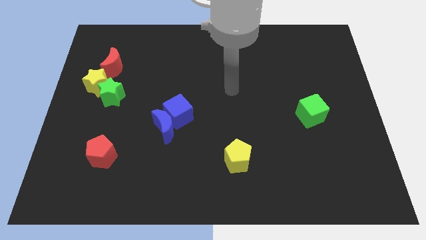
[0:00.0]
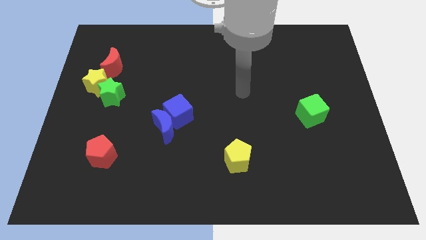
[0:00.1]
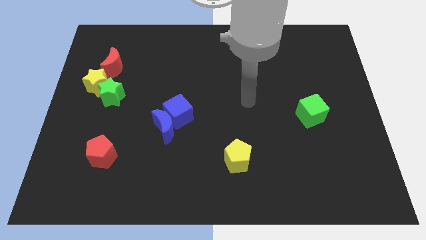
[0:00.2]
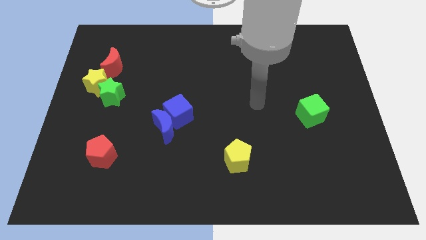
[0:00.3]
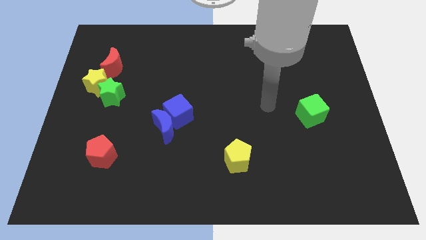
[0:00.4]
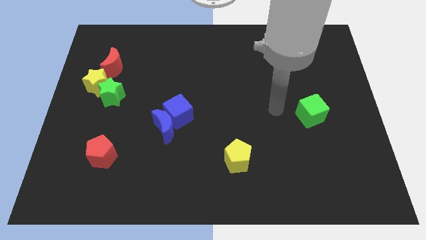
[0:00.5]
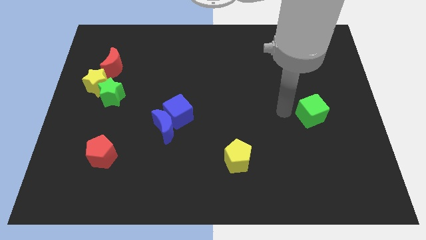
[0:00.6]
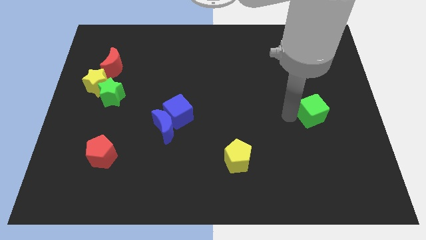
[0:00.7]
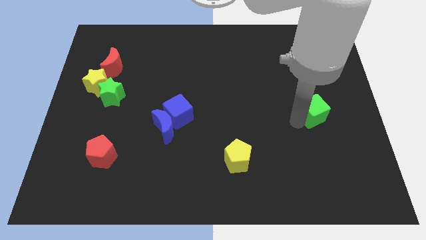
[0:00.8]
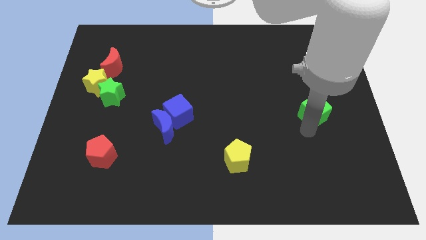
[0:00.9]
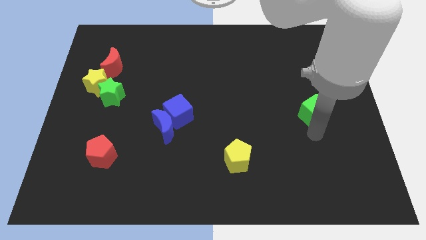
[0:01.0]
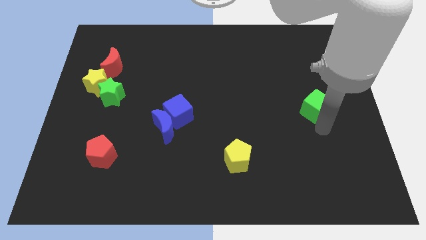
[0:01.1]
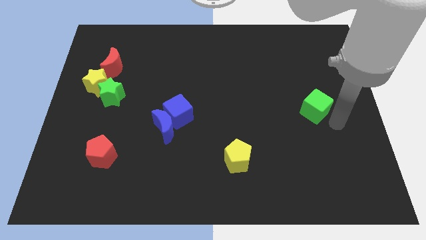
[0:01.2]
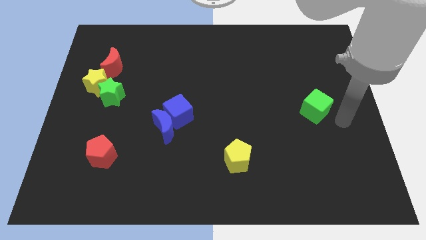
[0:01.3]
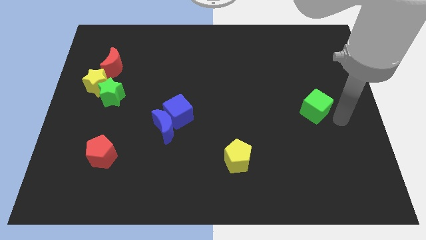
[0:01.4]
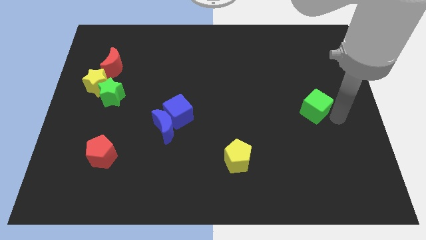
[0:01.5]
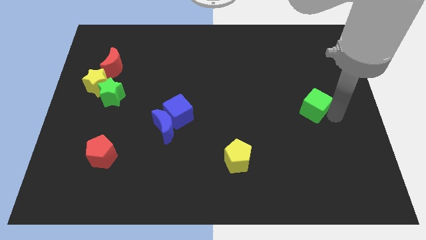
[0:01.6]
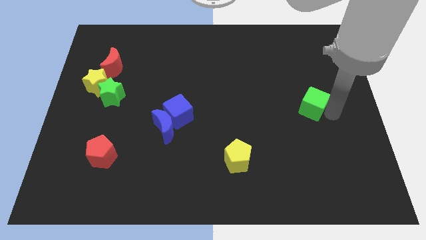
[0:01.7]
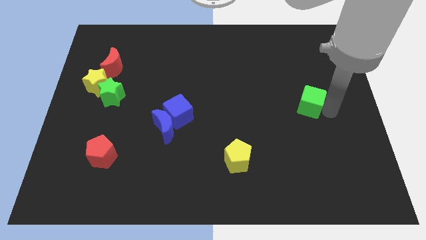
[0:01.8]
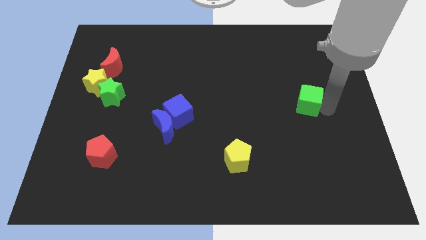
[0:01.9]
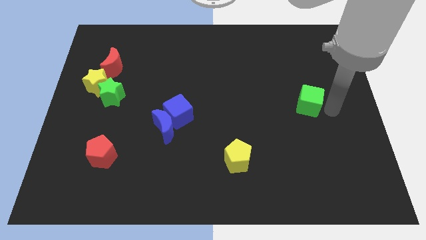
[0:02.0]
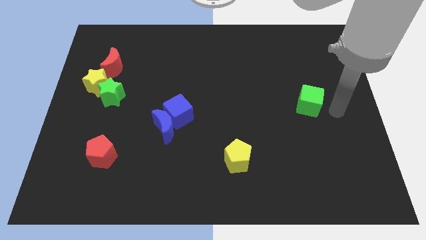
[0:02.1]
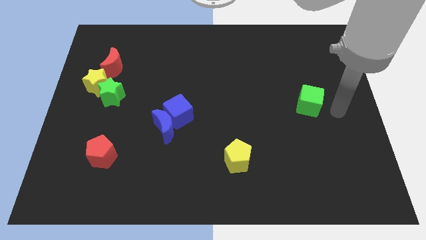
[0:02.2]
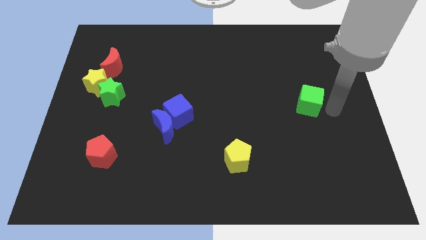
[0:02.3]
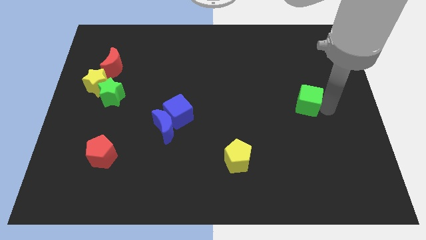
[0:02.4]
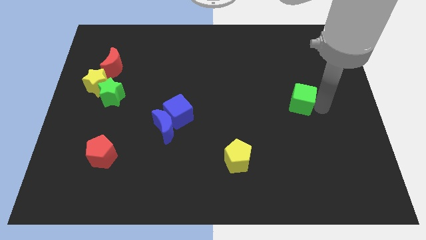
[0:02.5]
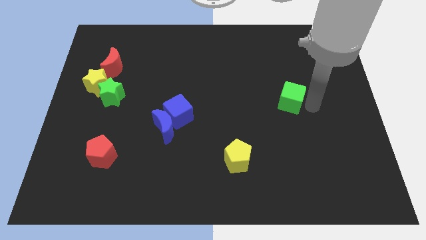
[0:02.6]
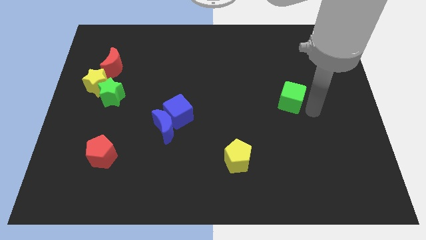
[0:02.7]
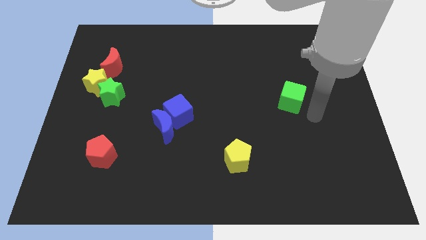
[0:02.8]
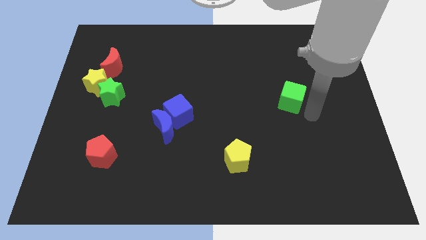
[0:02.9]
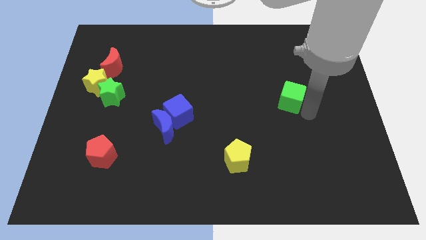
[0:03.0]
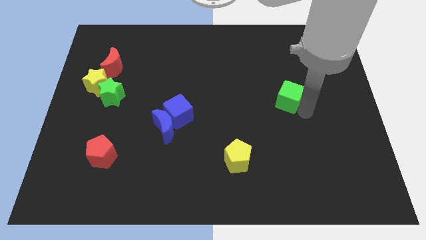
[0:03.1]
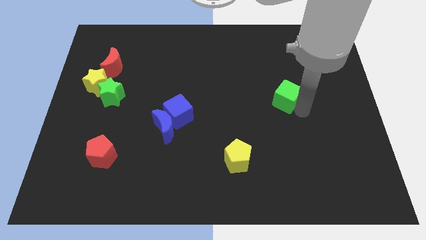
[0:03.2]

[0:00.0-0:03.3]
slide the green cube upwards and to the left diagonally a bit

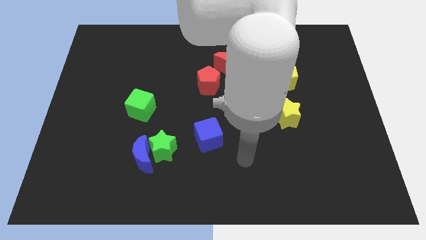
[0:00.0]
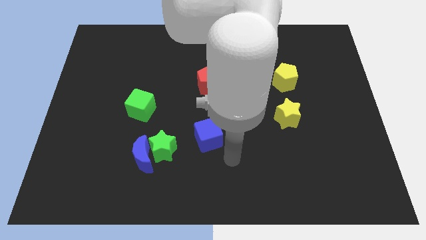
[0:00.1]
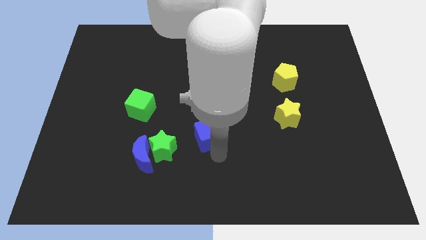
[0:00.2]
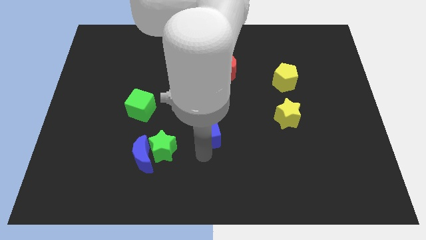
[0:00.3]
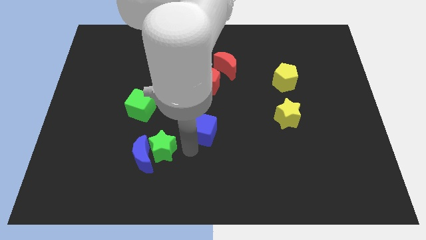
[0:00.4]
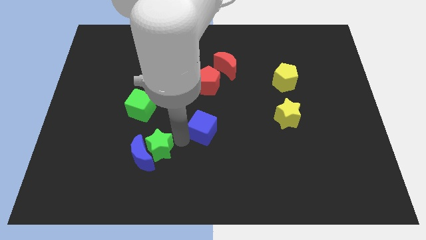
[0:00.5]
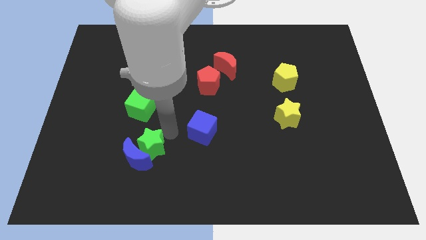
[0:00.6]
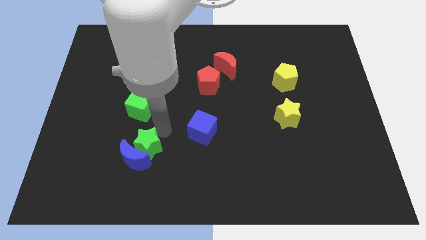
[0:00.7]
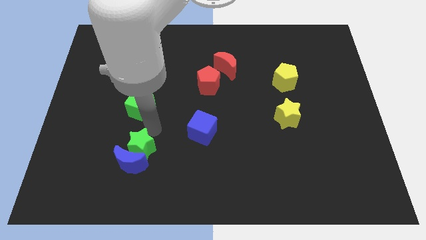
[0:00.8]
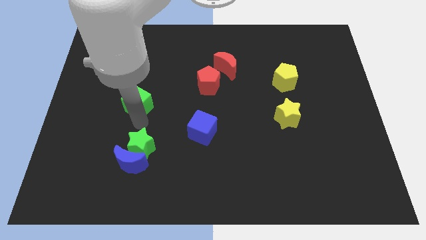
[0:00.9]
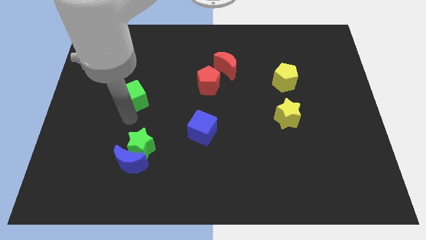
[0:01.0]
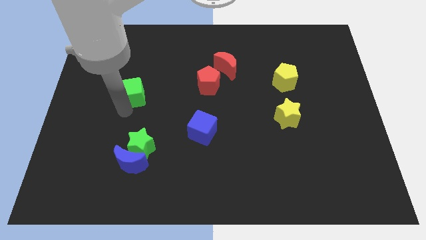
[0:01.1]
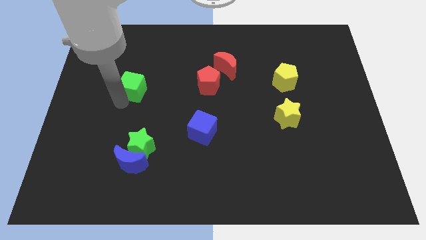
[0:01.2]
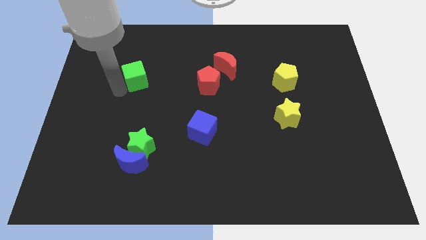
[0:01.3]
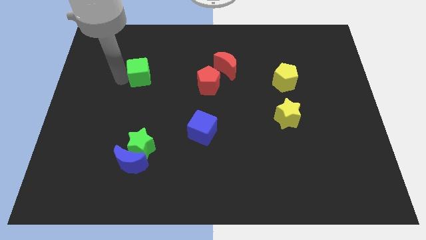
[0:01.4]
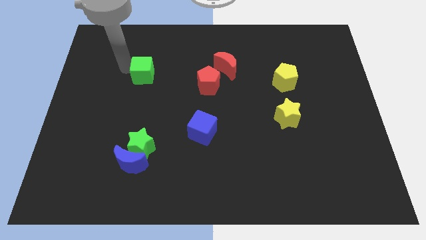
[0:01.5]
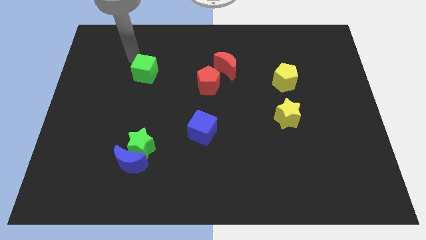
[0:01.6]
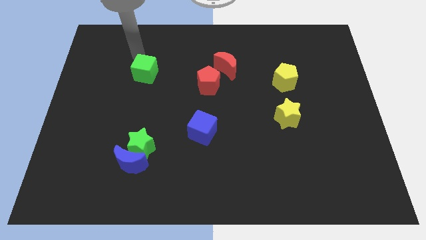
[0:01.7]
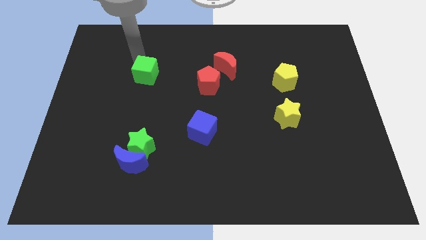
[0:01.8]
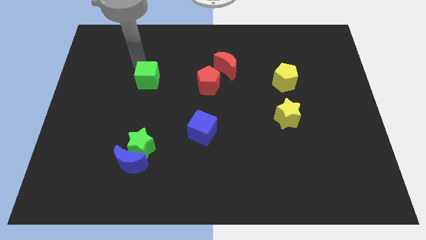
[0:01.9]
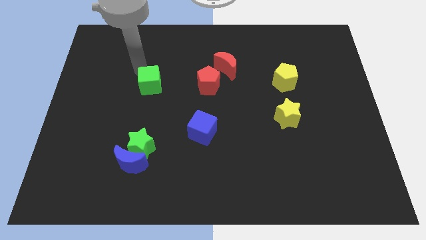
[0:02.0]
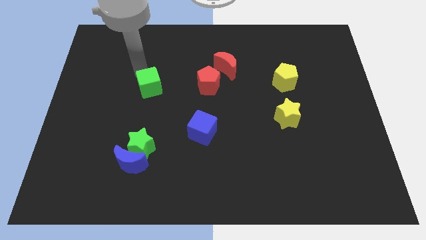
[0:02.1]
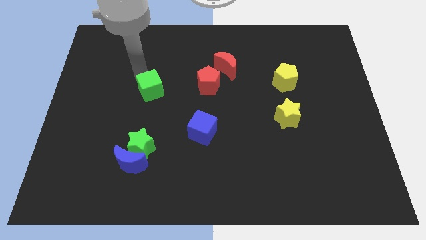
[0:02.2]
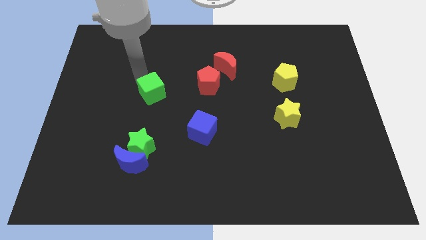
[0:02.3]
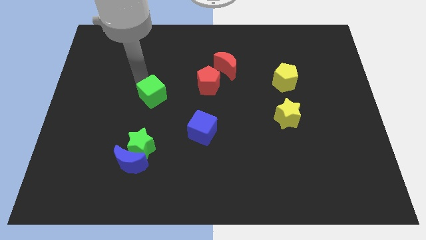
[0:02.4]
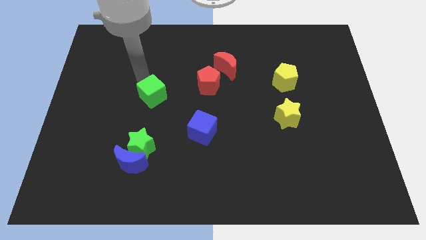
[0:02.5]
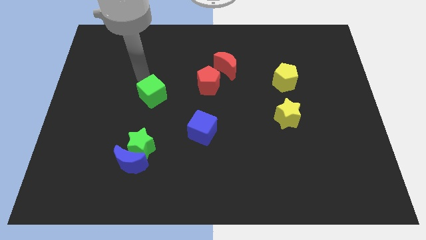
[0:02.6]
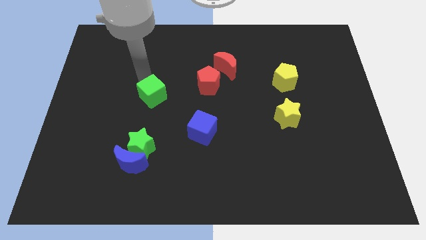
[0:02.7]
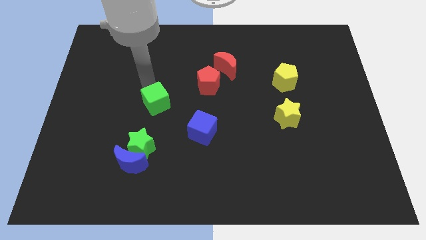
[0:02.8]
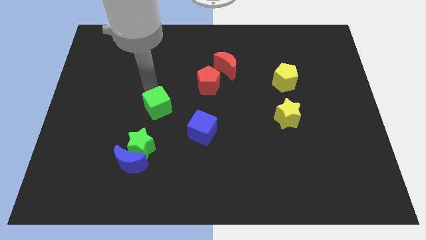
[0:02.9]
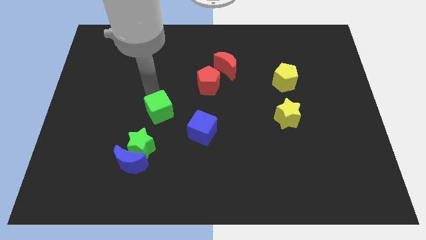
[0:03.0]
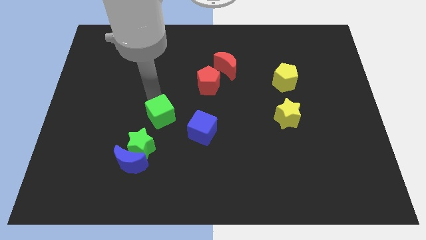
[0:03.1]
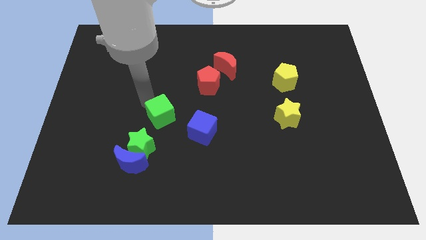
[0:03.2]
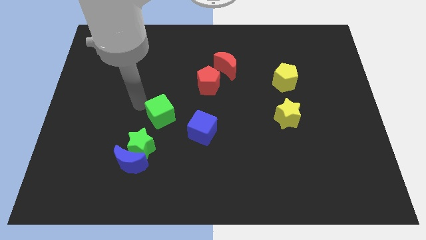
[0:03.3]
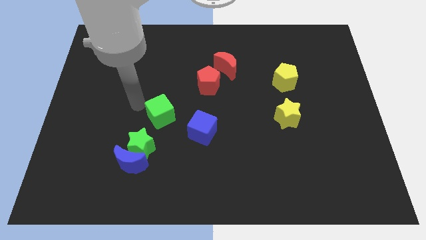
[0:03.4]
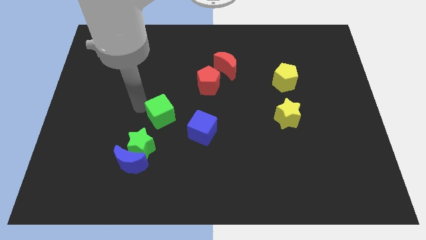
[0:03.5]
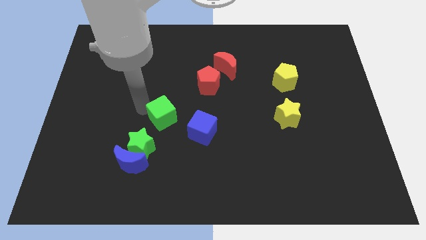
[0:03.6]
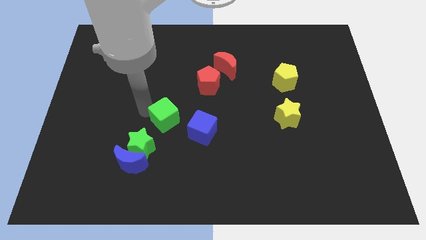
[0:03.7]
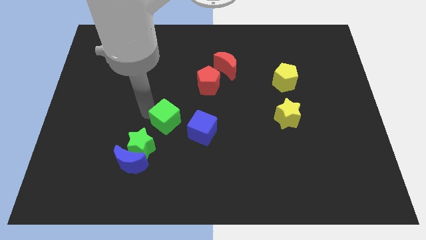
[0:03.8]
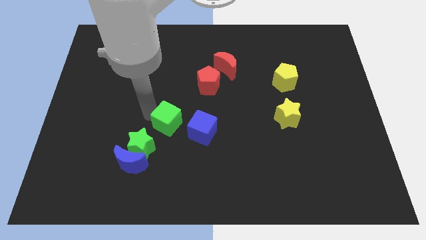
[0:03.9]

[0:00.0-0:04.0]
push the green cube a little bit down and then right

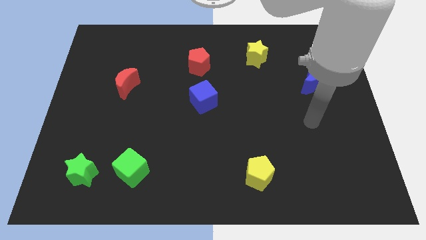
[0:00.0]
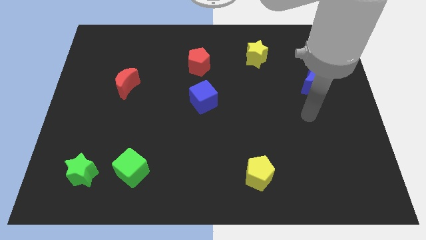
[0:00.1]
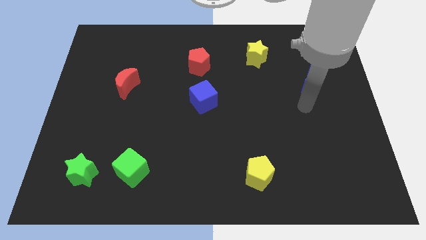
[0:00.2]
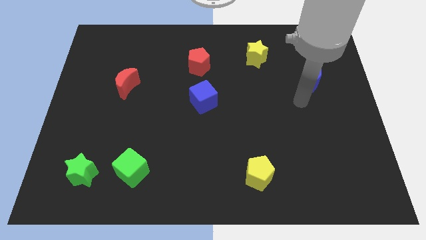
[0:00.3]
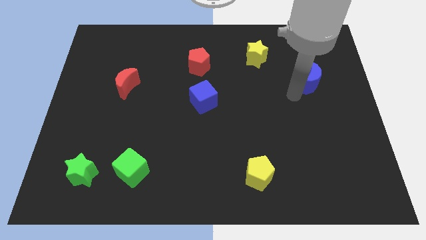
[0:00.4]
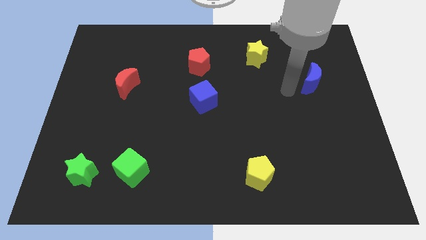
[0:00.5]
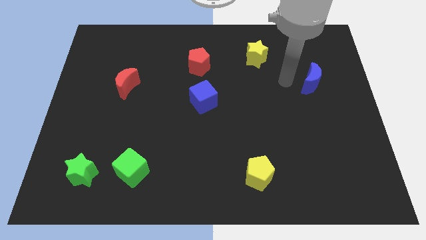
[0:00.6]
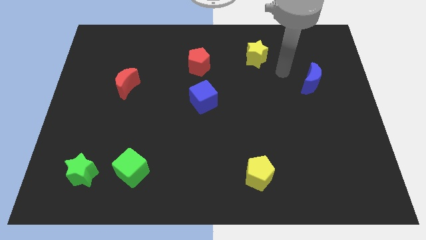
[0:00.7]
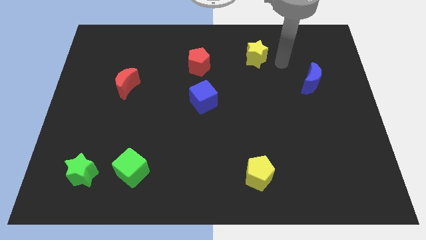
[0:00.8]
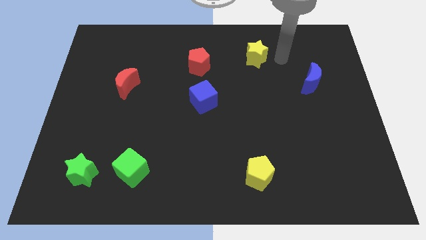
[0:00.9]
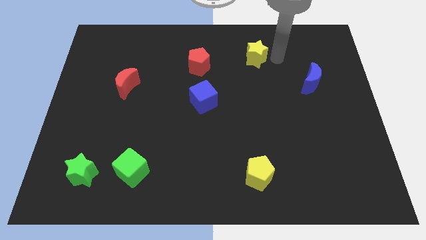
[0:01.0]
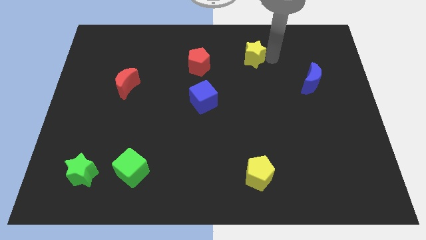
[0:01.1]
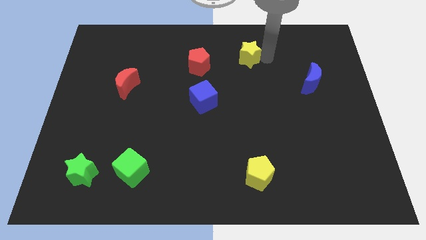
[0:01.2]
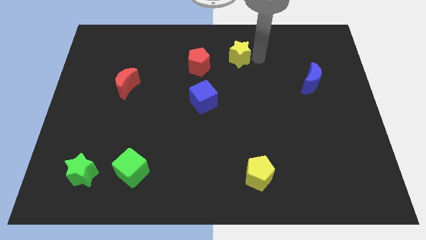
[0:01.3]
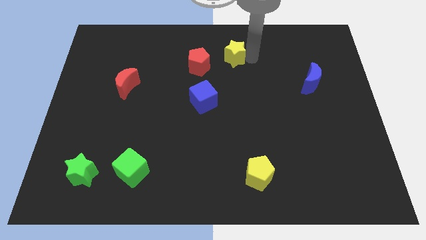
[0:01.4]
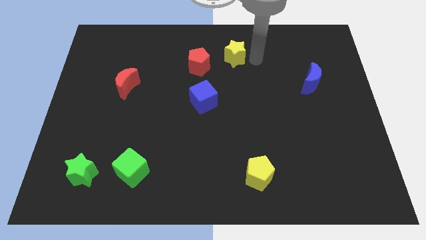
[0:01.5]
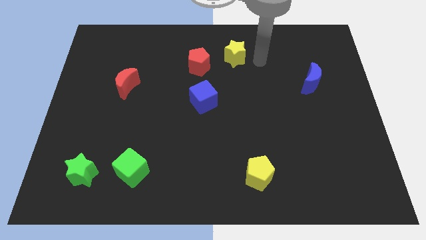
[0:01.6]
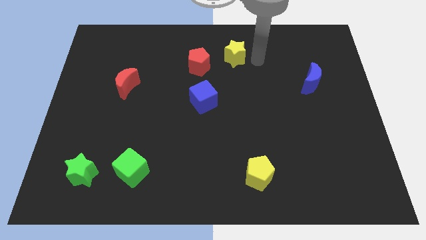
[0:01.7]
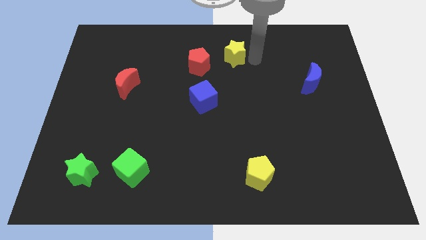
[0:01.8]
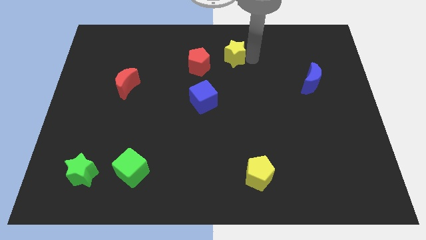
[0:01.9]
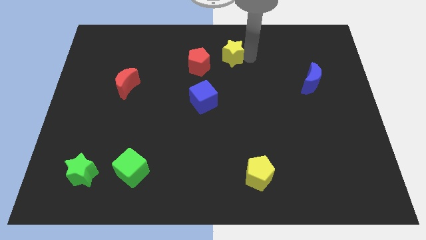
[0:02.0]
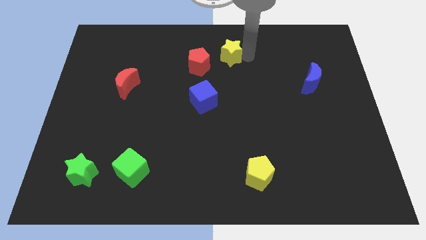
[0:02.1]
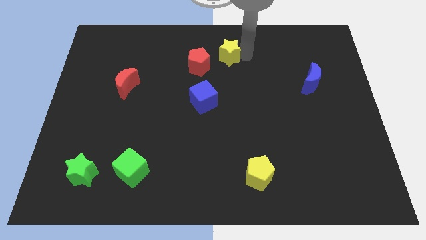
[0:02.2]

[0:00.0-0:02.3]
slightly slide the yellow star to the left
